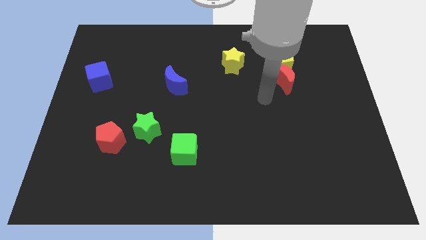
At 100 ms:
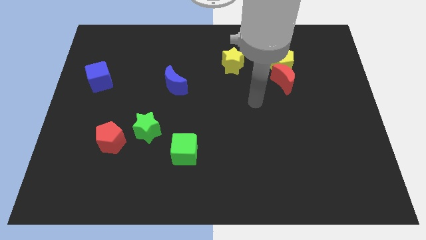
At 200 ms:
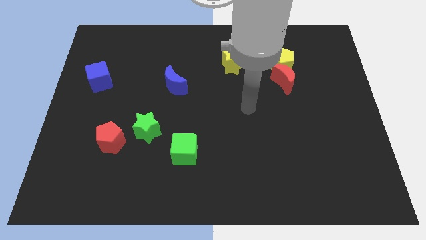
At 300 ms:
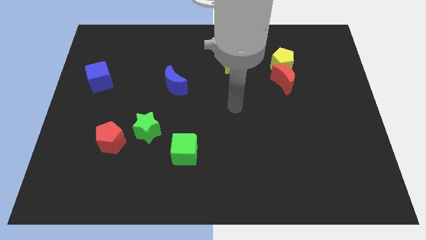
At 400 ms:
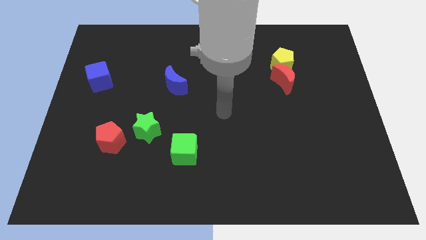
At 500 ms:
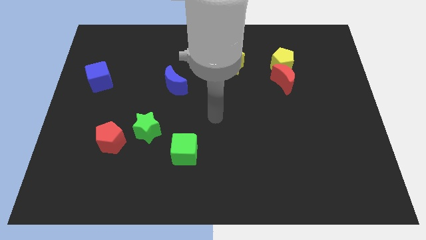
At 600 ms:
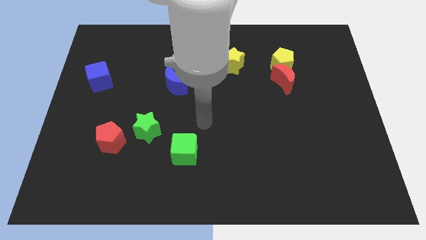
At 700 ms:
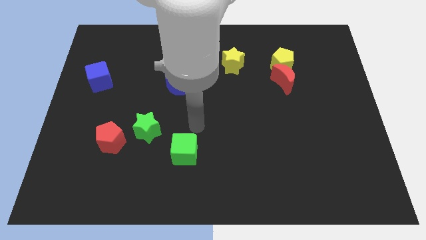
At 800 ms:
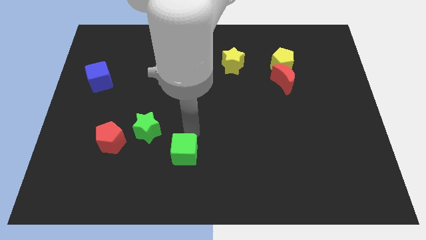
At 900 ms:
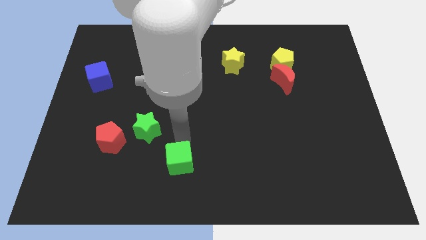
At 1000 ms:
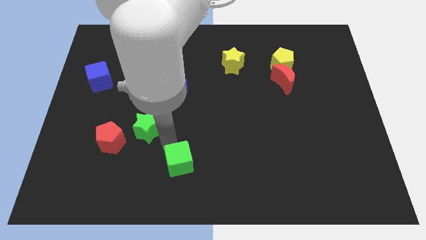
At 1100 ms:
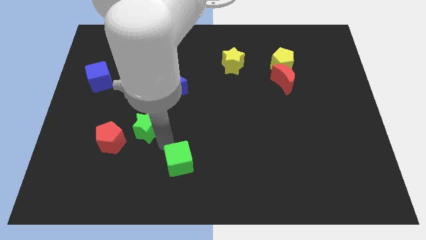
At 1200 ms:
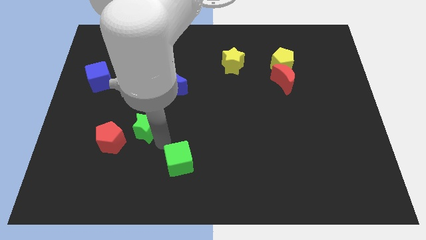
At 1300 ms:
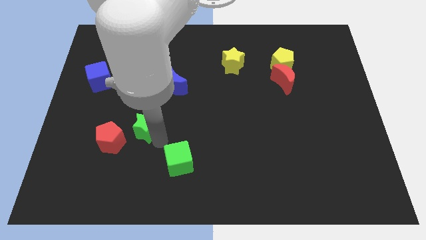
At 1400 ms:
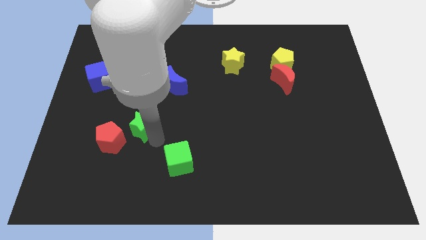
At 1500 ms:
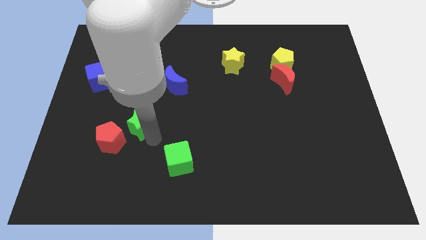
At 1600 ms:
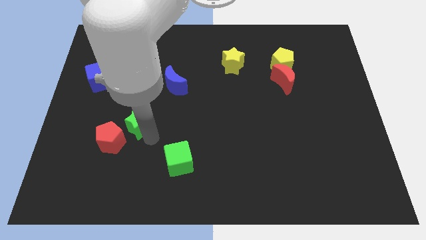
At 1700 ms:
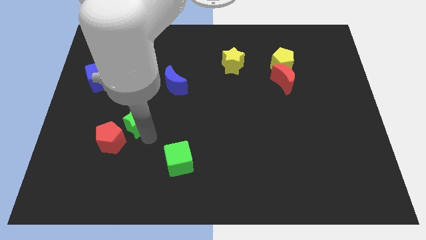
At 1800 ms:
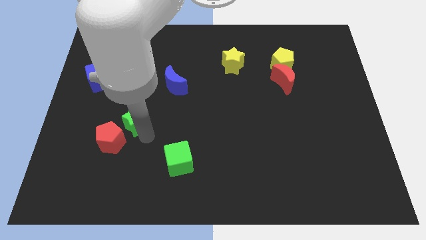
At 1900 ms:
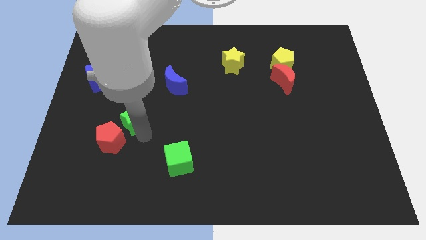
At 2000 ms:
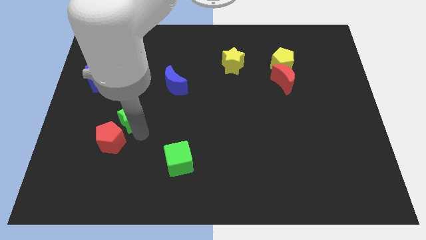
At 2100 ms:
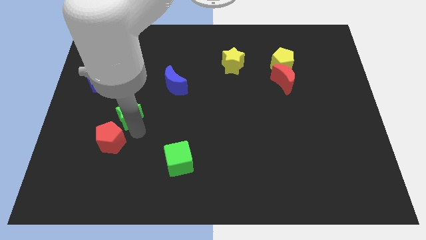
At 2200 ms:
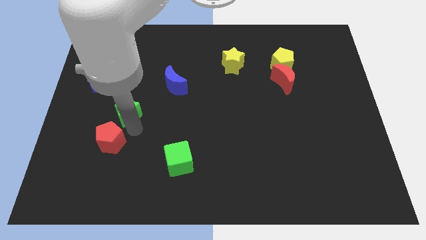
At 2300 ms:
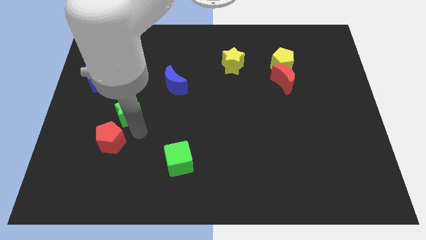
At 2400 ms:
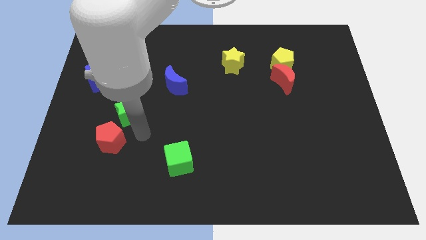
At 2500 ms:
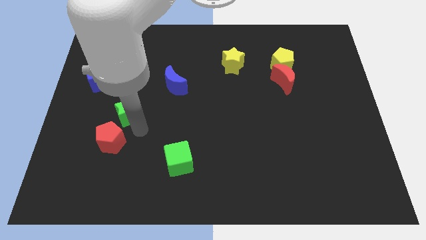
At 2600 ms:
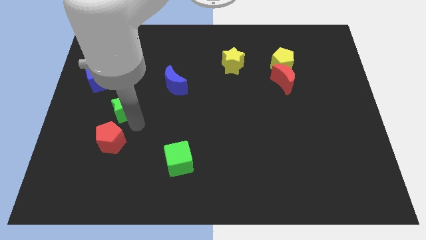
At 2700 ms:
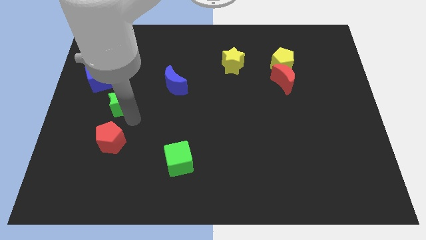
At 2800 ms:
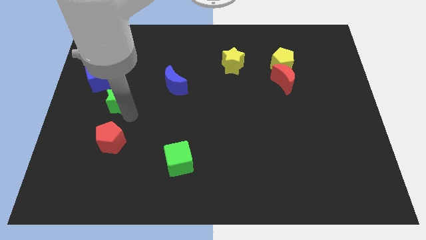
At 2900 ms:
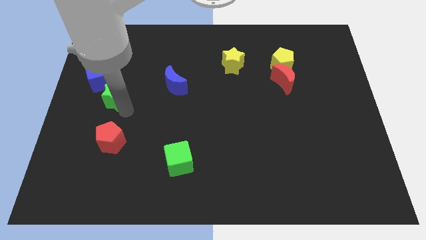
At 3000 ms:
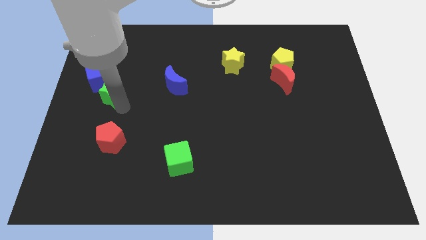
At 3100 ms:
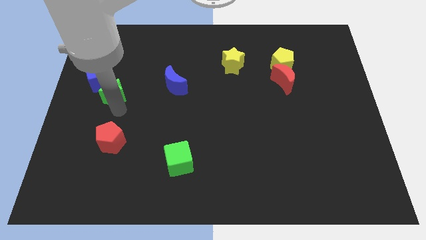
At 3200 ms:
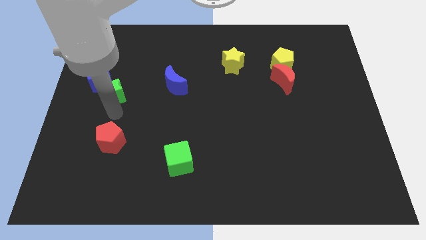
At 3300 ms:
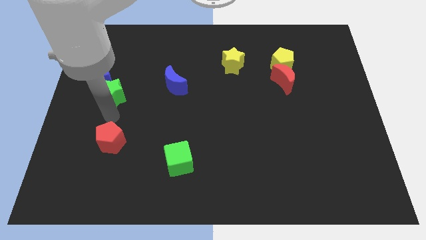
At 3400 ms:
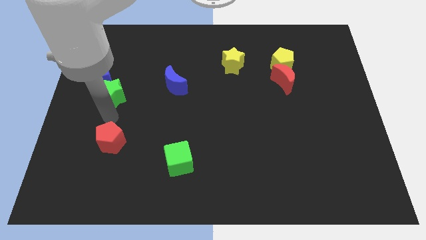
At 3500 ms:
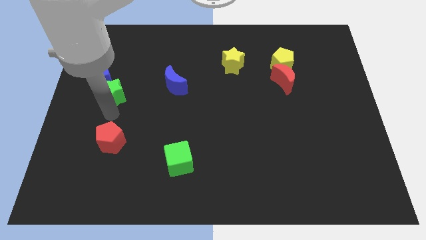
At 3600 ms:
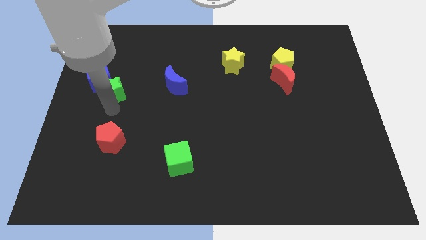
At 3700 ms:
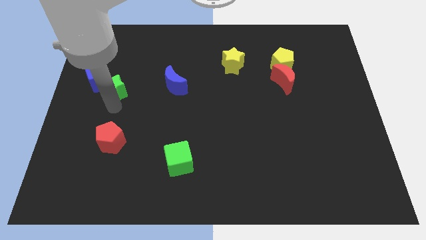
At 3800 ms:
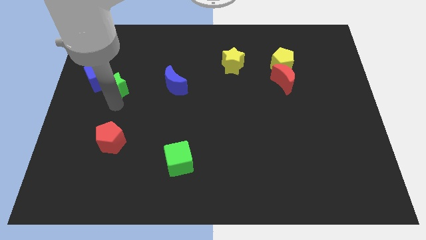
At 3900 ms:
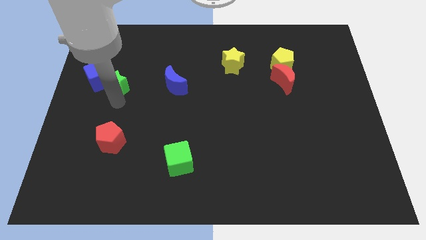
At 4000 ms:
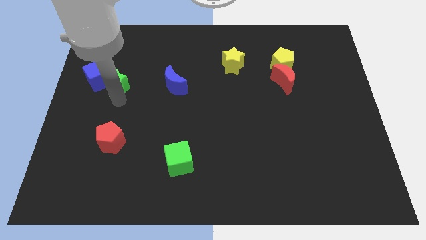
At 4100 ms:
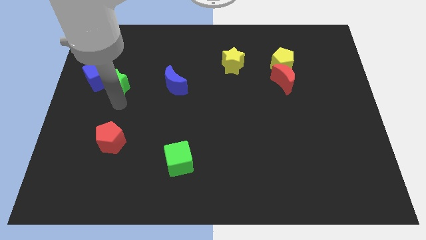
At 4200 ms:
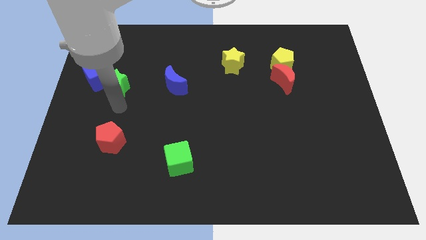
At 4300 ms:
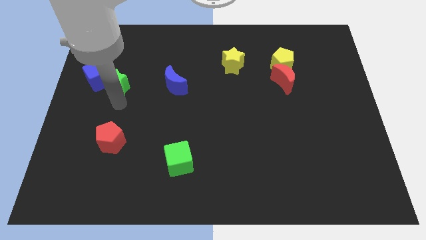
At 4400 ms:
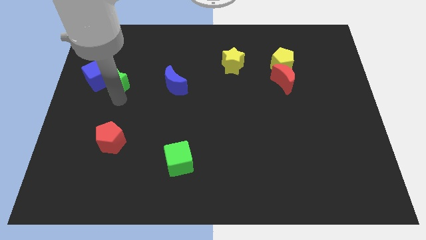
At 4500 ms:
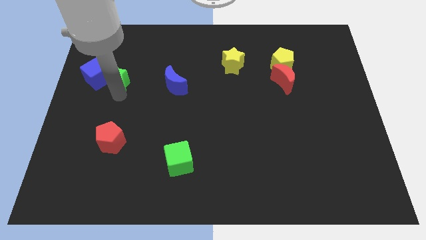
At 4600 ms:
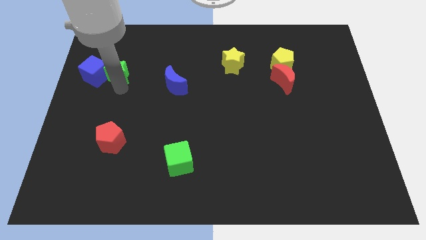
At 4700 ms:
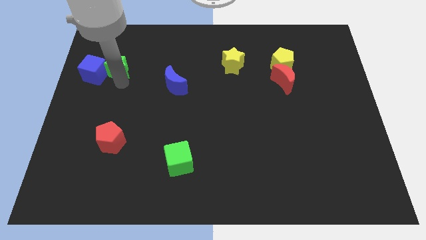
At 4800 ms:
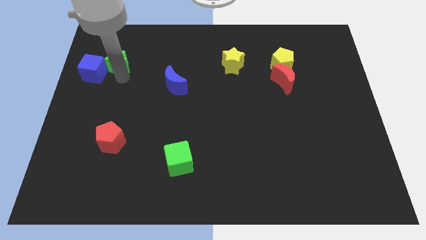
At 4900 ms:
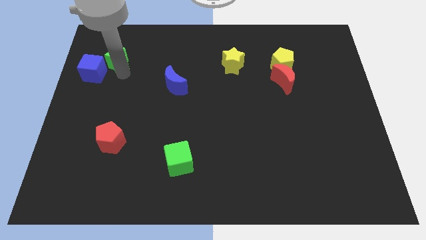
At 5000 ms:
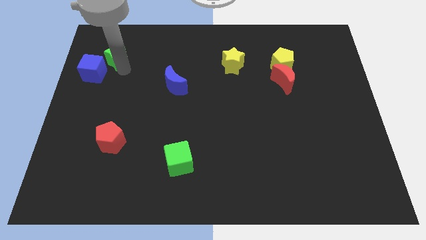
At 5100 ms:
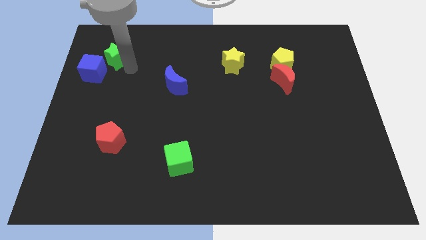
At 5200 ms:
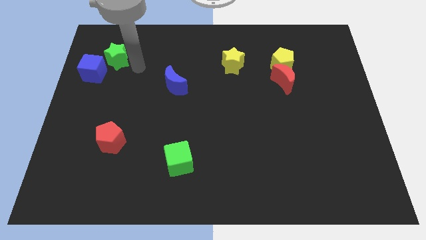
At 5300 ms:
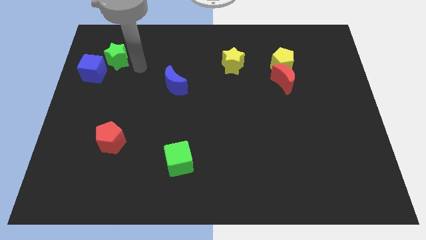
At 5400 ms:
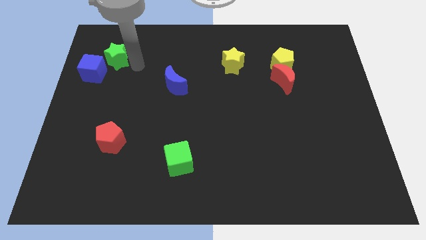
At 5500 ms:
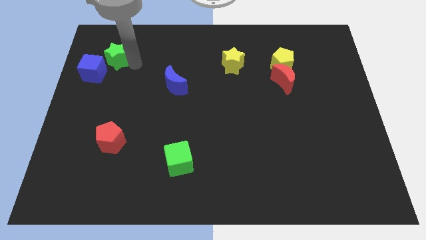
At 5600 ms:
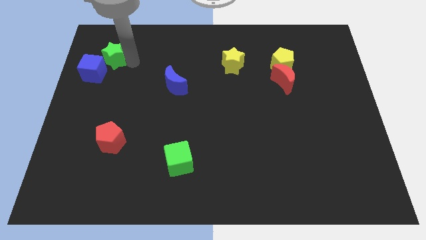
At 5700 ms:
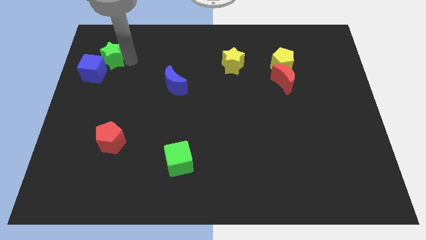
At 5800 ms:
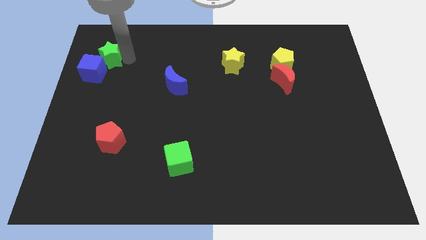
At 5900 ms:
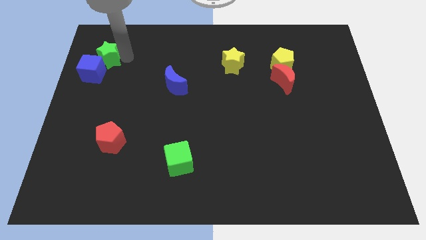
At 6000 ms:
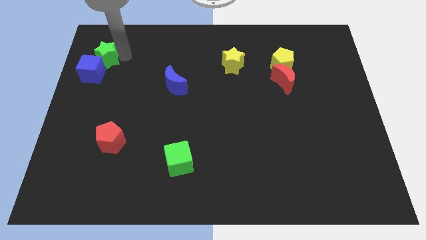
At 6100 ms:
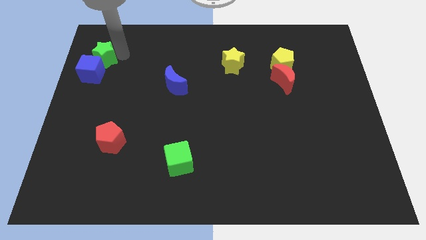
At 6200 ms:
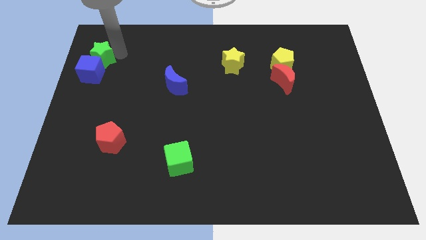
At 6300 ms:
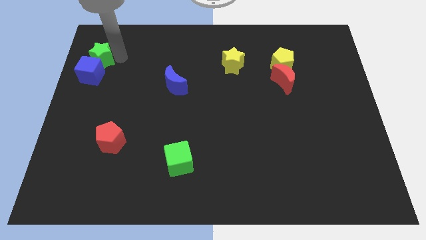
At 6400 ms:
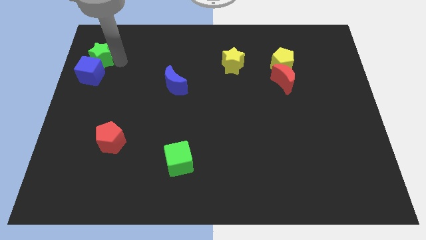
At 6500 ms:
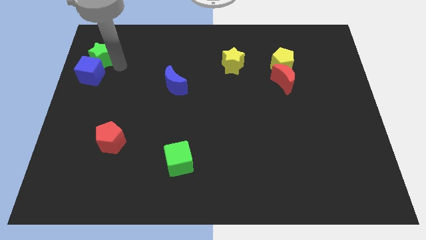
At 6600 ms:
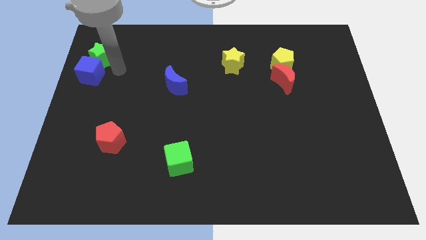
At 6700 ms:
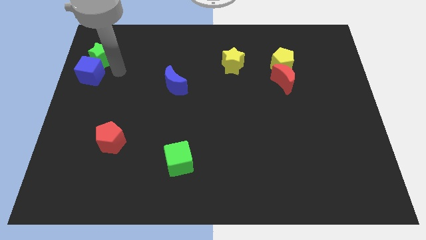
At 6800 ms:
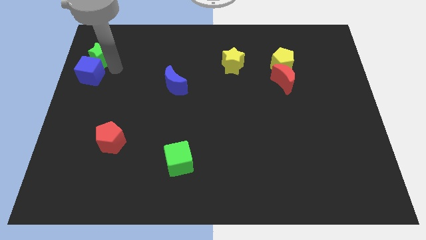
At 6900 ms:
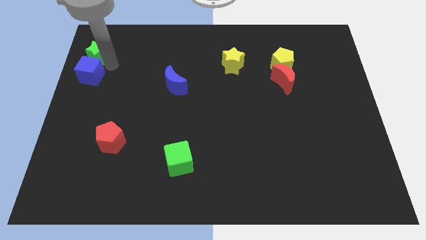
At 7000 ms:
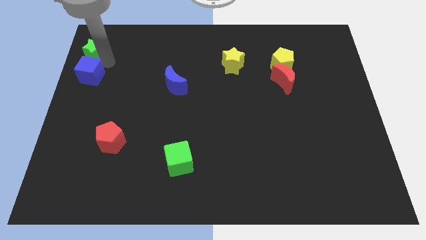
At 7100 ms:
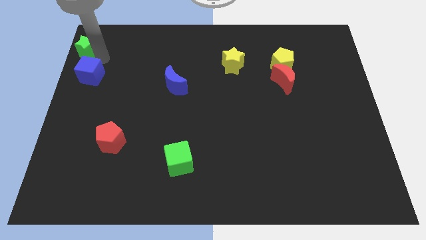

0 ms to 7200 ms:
put the green star to the top left corner
